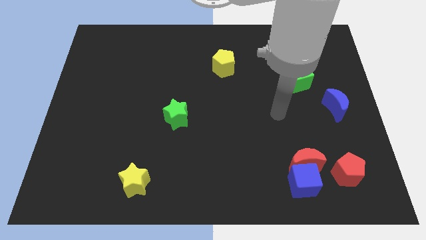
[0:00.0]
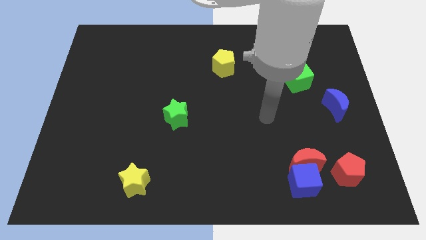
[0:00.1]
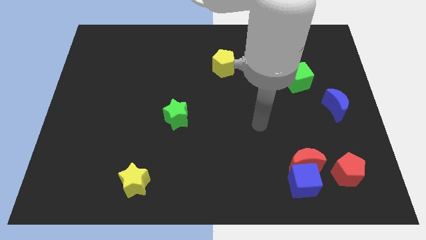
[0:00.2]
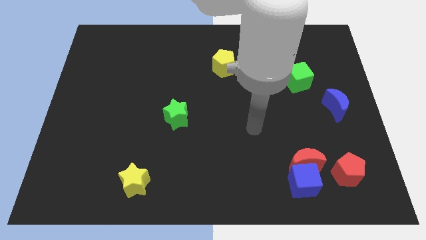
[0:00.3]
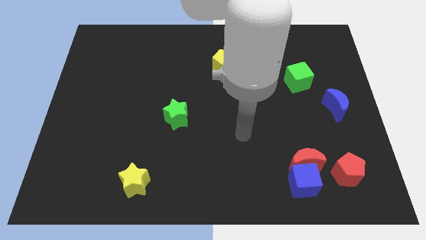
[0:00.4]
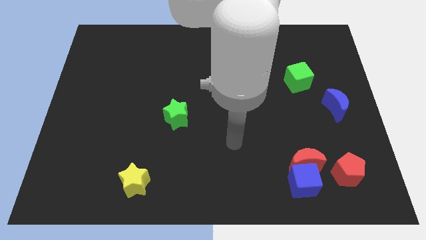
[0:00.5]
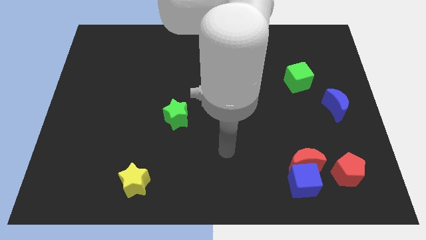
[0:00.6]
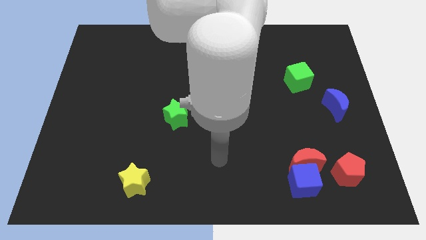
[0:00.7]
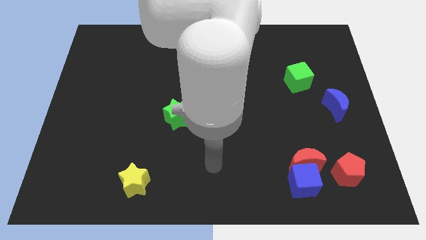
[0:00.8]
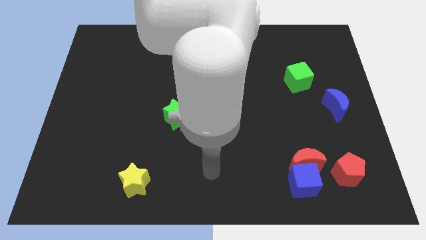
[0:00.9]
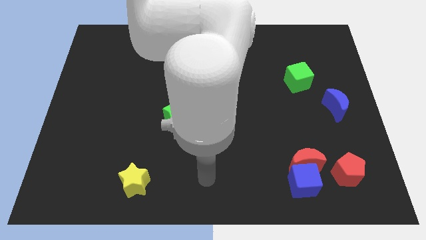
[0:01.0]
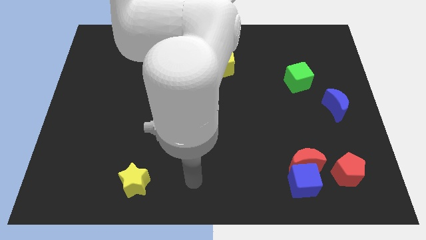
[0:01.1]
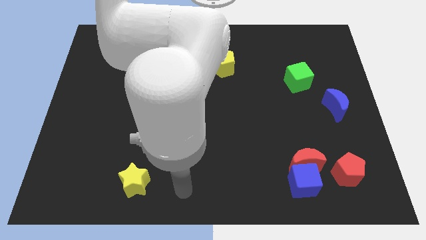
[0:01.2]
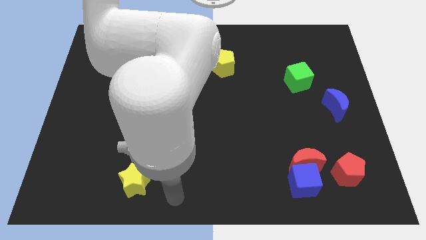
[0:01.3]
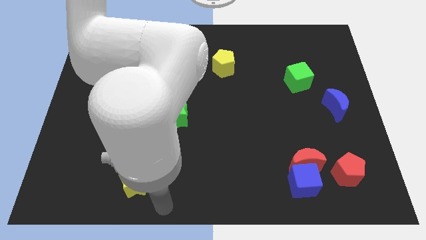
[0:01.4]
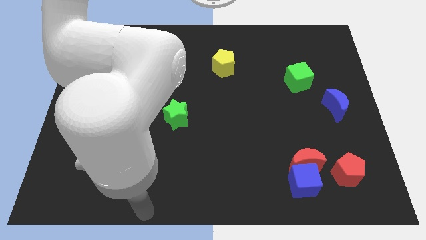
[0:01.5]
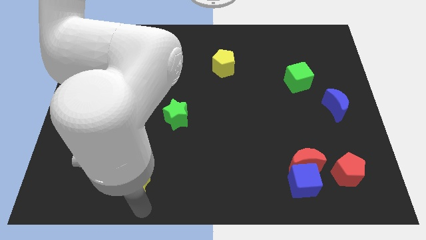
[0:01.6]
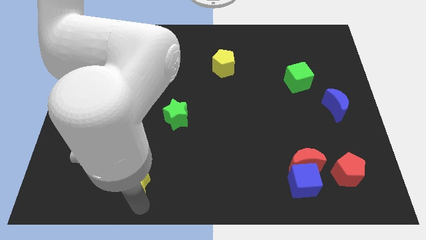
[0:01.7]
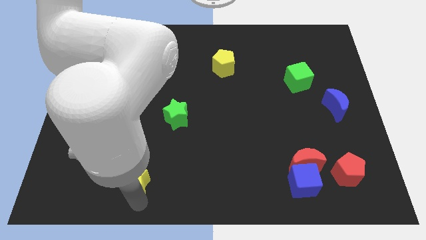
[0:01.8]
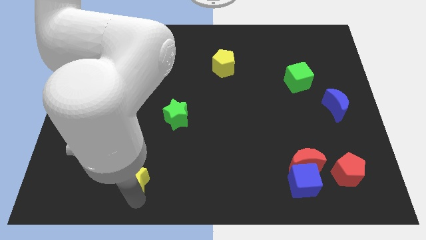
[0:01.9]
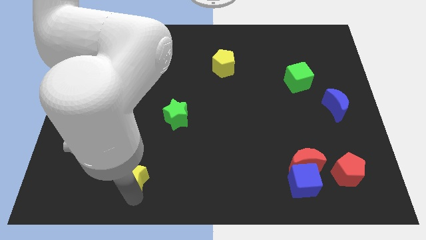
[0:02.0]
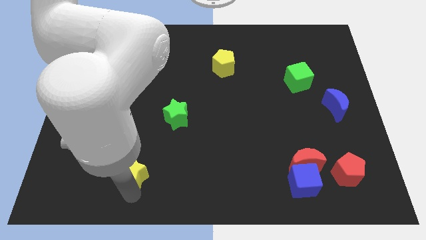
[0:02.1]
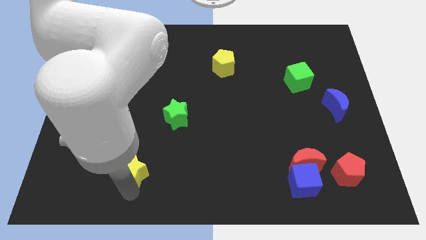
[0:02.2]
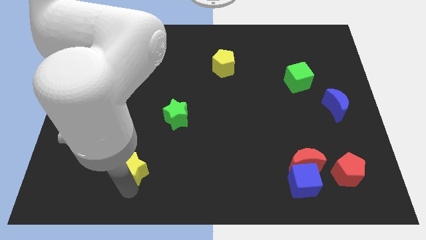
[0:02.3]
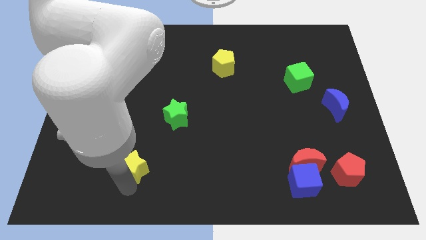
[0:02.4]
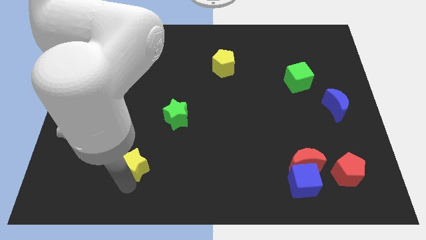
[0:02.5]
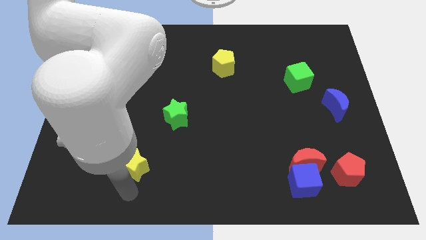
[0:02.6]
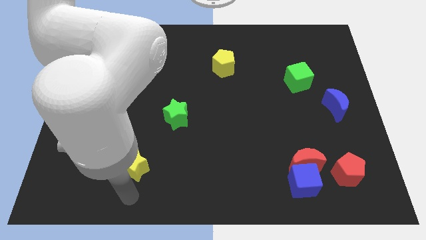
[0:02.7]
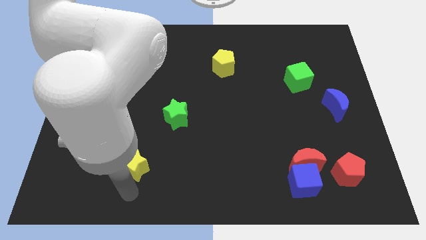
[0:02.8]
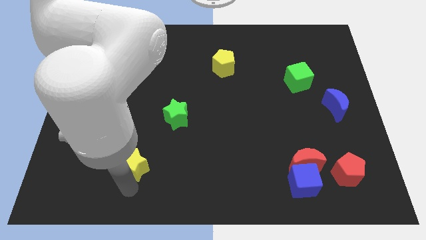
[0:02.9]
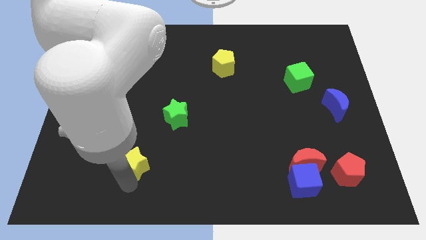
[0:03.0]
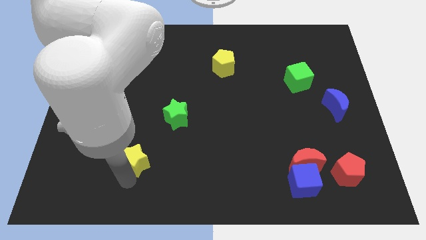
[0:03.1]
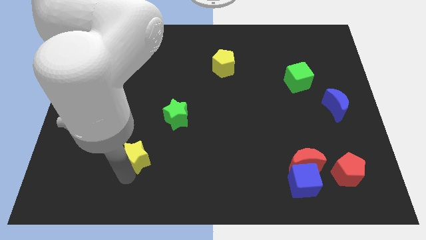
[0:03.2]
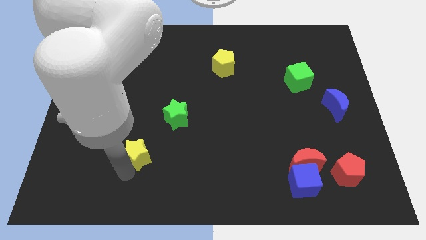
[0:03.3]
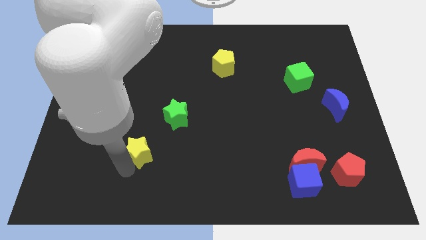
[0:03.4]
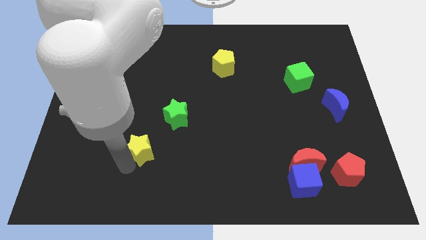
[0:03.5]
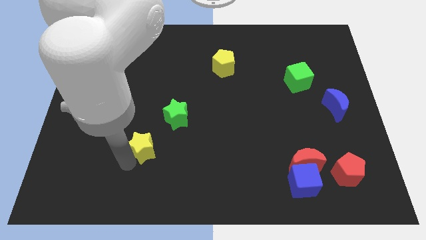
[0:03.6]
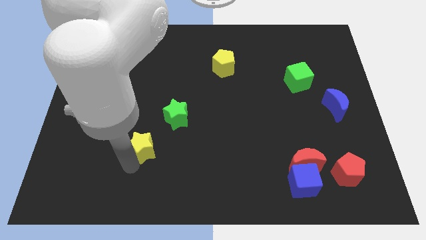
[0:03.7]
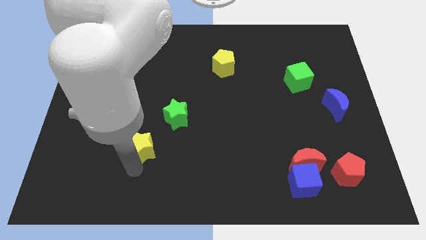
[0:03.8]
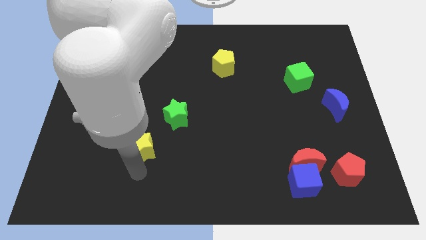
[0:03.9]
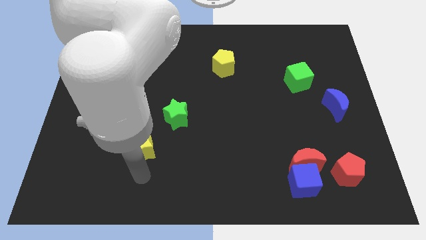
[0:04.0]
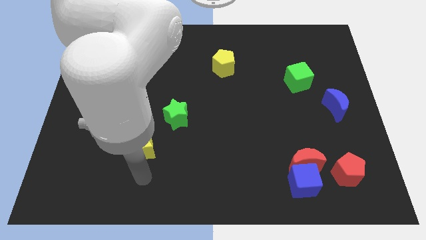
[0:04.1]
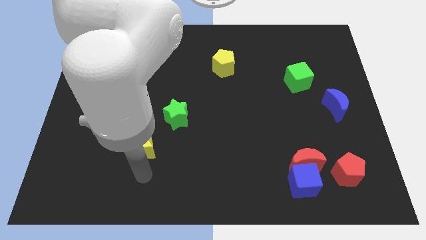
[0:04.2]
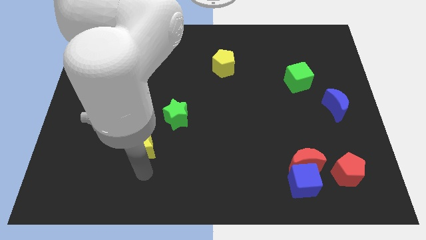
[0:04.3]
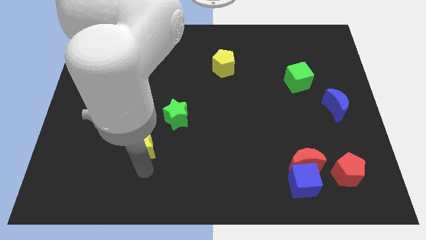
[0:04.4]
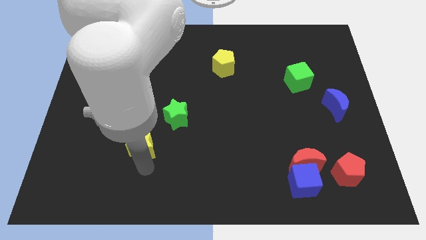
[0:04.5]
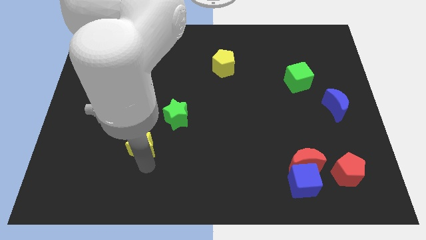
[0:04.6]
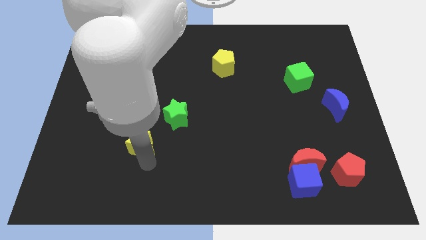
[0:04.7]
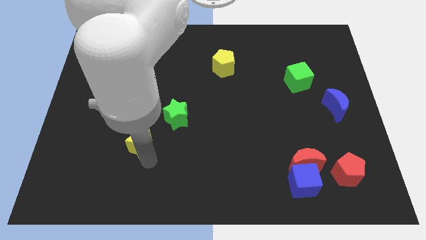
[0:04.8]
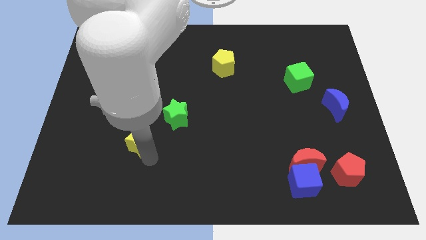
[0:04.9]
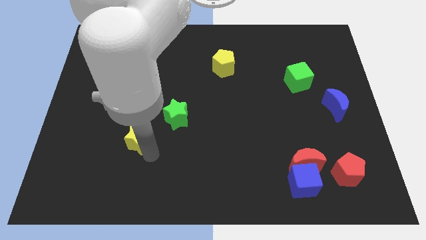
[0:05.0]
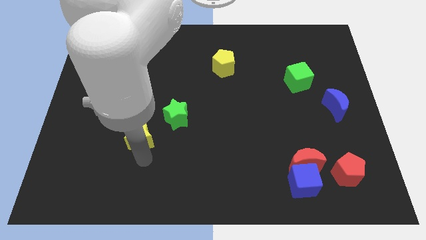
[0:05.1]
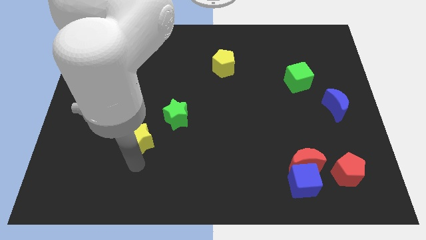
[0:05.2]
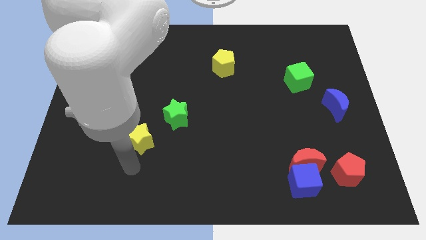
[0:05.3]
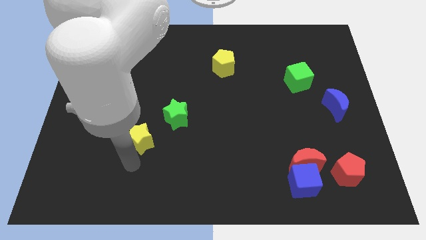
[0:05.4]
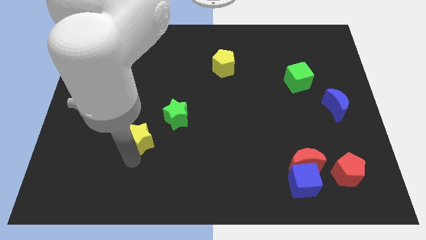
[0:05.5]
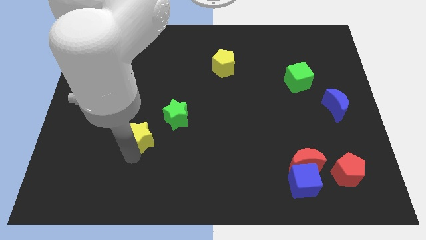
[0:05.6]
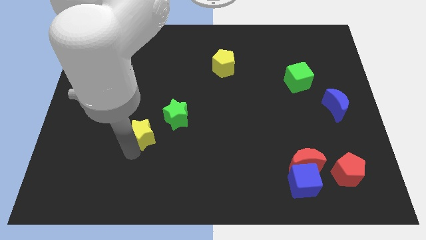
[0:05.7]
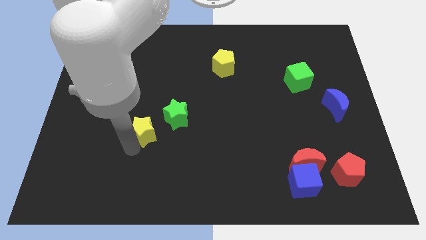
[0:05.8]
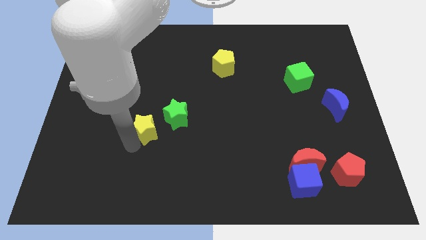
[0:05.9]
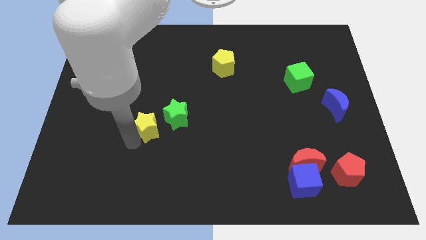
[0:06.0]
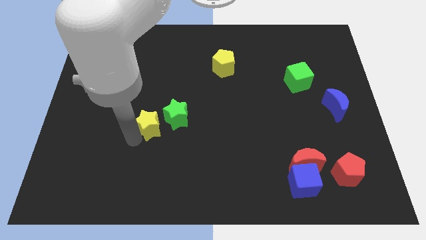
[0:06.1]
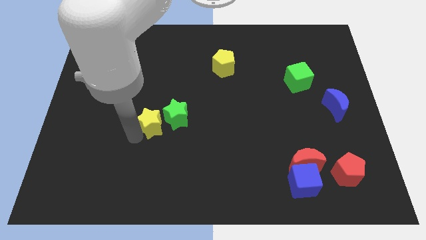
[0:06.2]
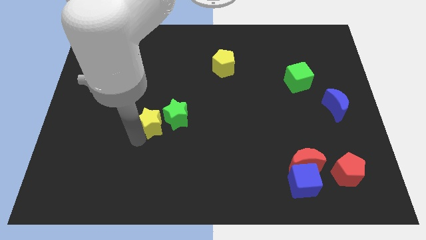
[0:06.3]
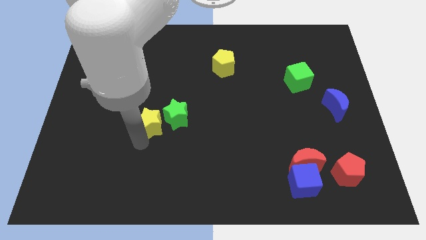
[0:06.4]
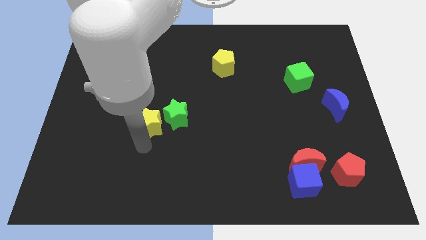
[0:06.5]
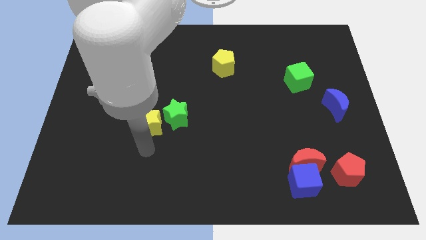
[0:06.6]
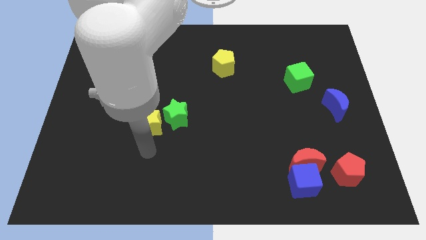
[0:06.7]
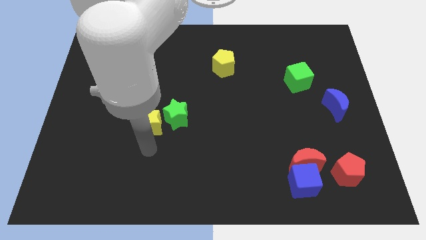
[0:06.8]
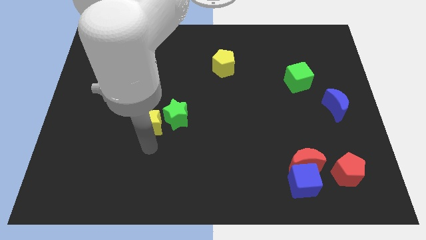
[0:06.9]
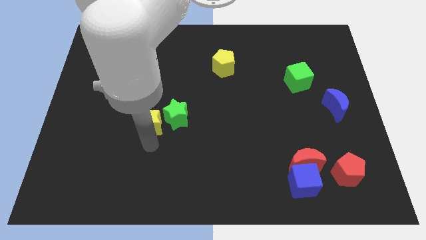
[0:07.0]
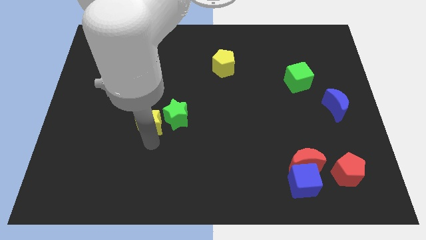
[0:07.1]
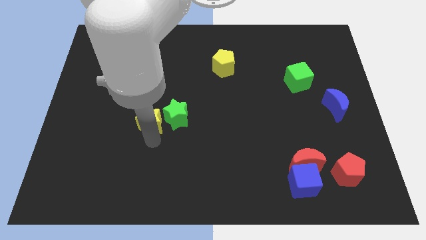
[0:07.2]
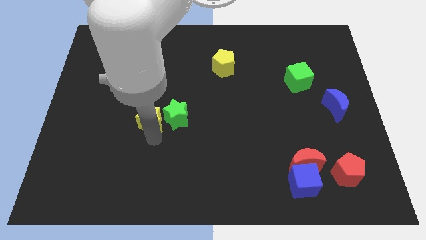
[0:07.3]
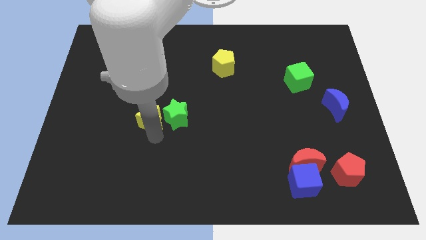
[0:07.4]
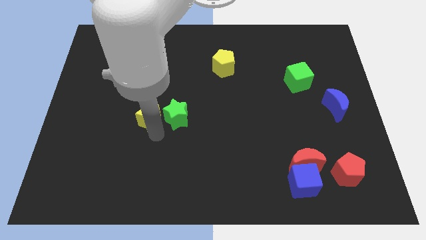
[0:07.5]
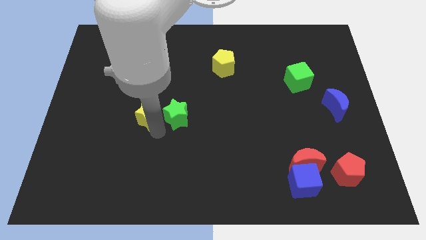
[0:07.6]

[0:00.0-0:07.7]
put the yellow star to the top left side of the green star
